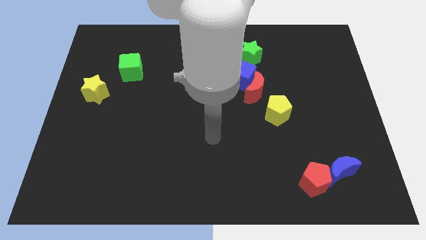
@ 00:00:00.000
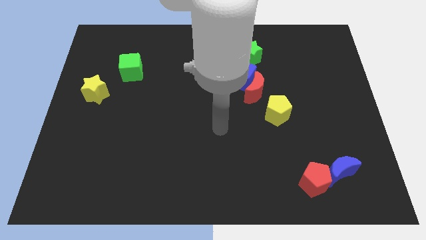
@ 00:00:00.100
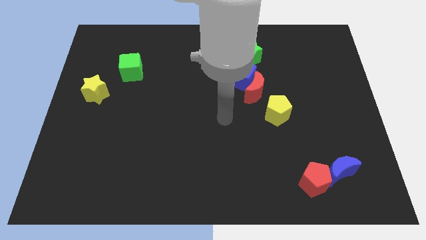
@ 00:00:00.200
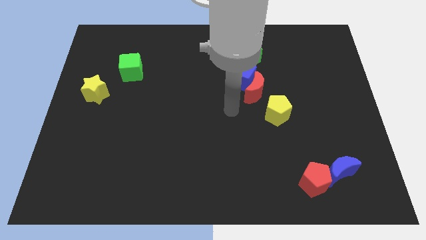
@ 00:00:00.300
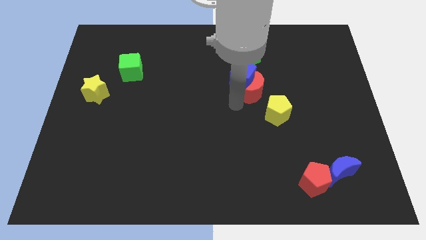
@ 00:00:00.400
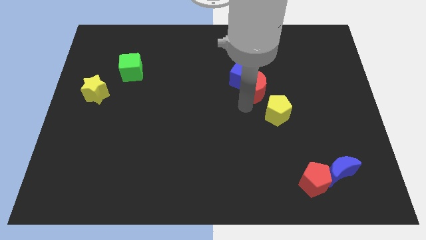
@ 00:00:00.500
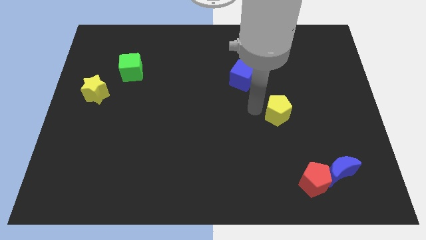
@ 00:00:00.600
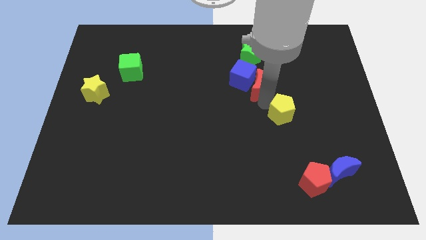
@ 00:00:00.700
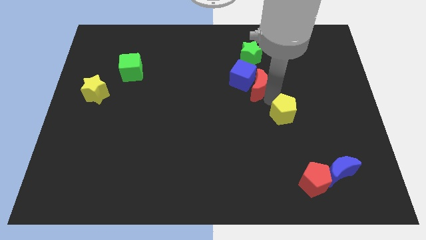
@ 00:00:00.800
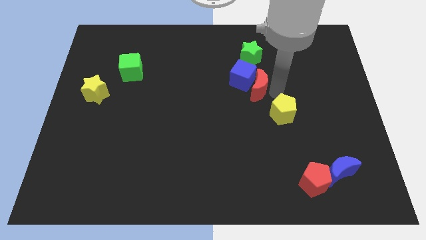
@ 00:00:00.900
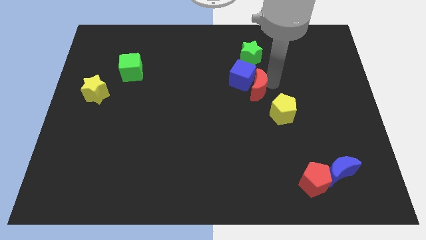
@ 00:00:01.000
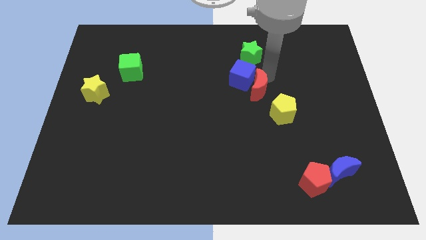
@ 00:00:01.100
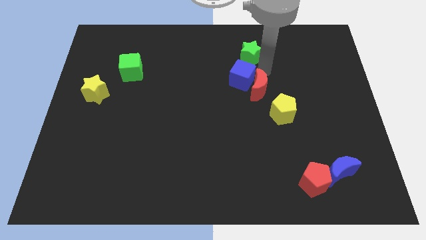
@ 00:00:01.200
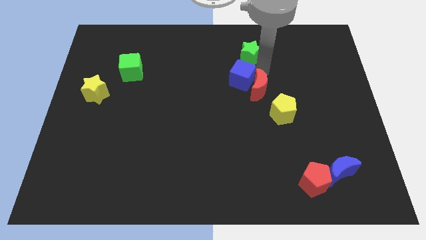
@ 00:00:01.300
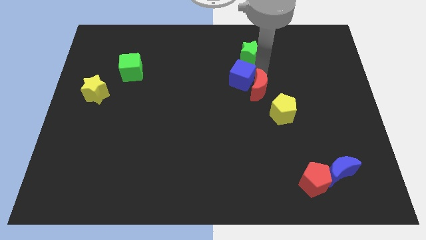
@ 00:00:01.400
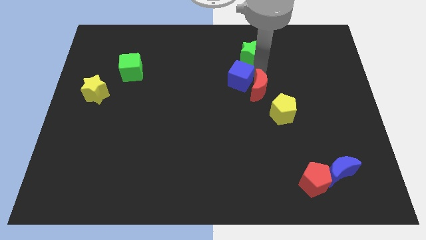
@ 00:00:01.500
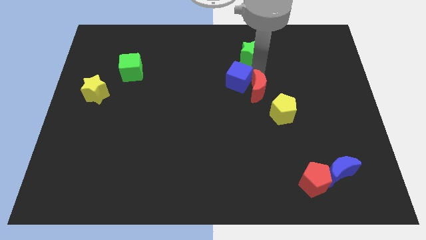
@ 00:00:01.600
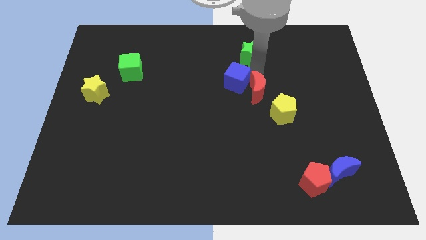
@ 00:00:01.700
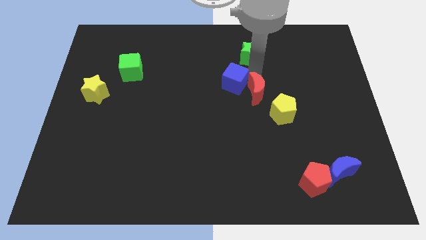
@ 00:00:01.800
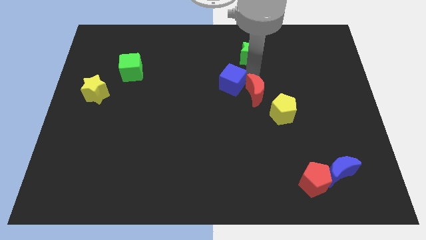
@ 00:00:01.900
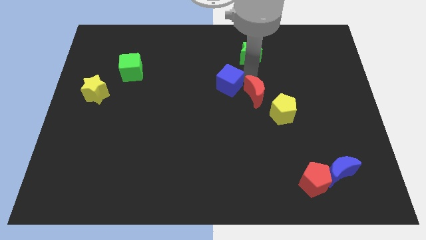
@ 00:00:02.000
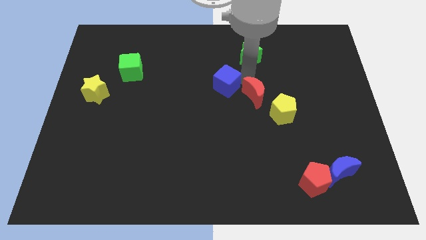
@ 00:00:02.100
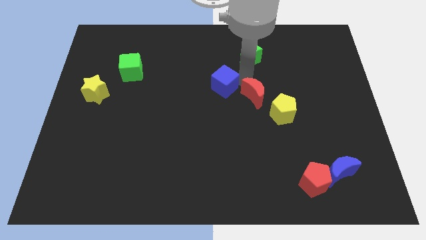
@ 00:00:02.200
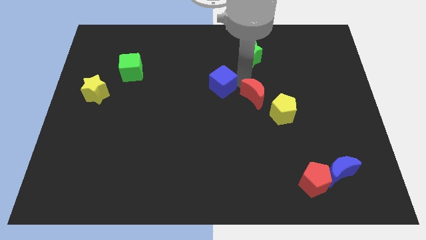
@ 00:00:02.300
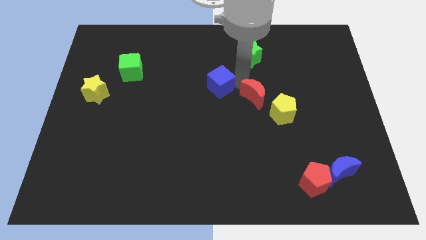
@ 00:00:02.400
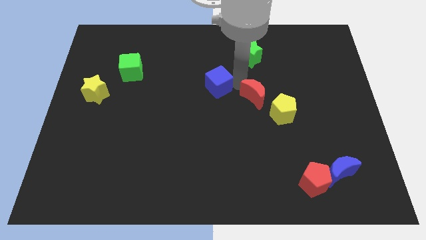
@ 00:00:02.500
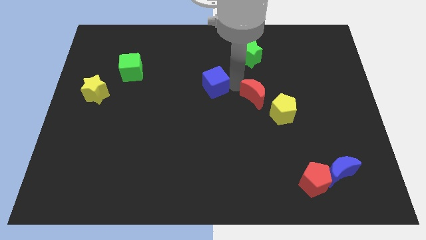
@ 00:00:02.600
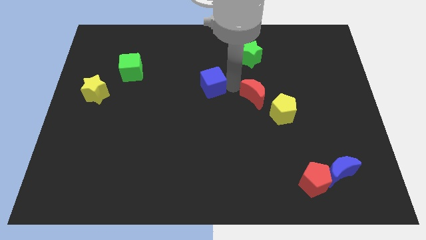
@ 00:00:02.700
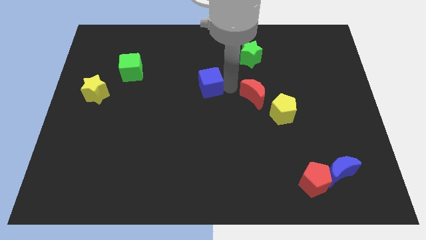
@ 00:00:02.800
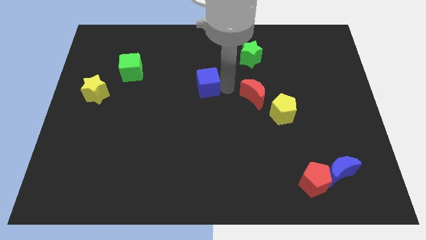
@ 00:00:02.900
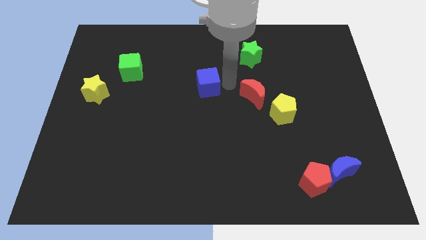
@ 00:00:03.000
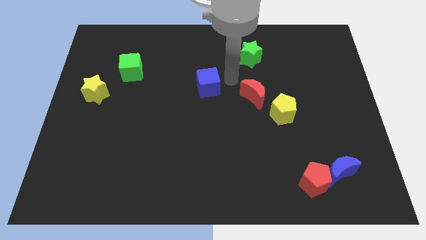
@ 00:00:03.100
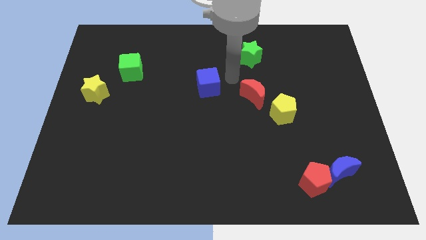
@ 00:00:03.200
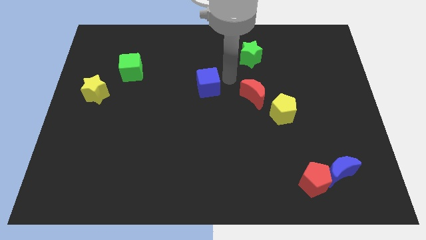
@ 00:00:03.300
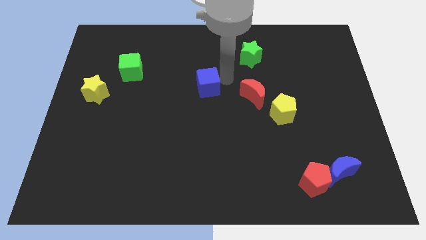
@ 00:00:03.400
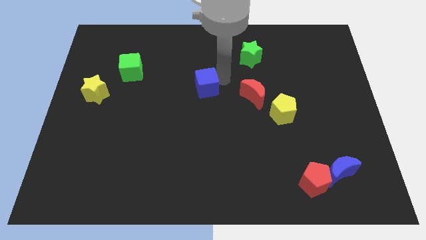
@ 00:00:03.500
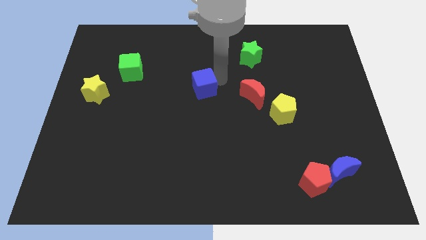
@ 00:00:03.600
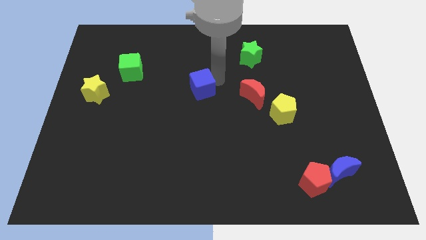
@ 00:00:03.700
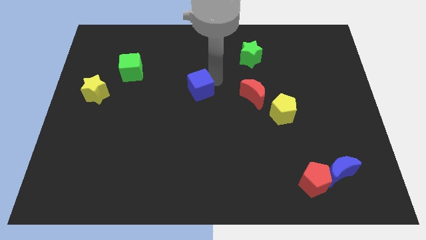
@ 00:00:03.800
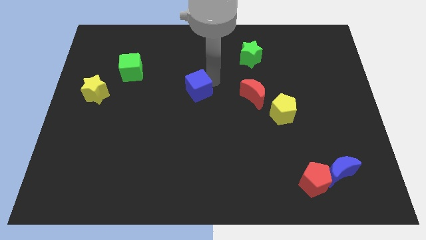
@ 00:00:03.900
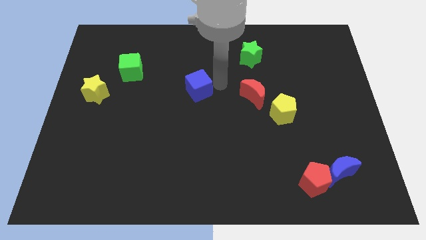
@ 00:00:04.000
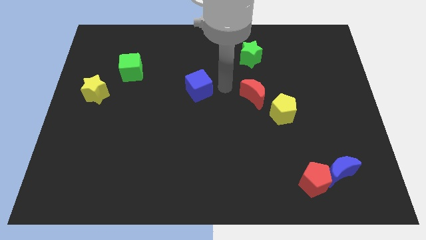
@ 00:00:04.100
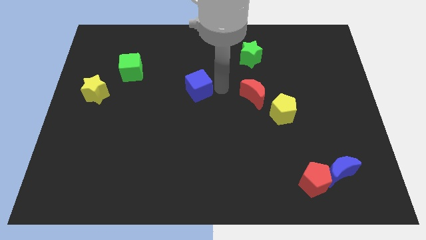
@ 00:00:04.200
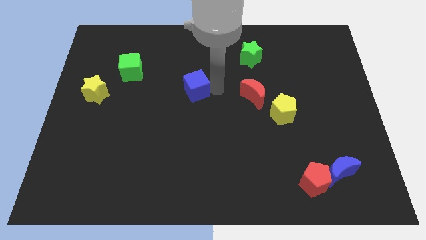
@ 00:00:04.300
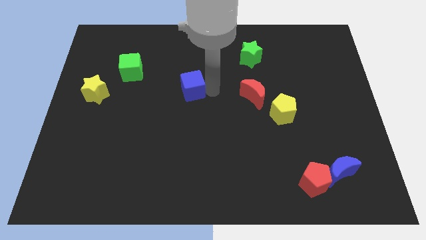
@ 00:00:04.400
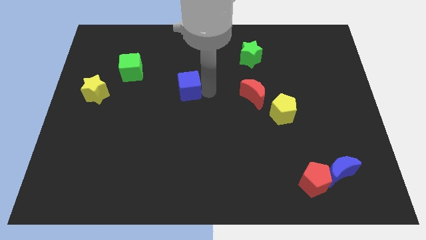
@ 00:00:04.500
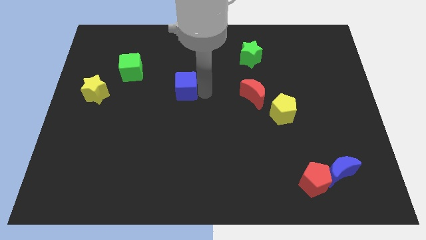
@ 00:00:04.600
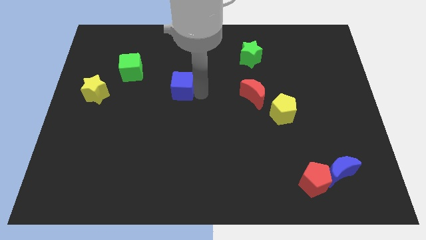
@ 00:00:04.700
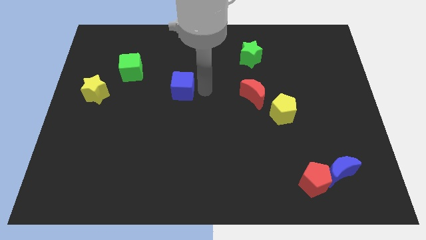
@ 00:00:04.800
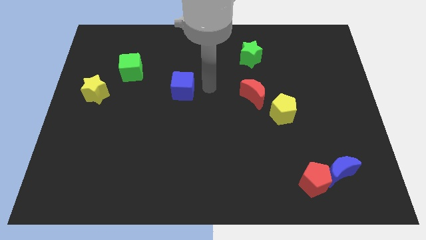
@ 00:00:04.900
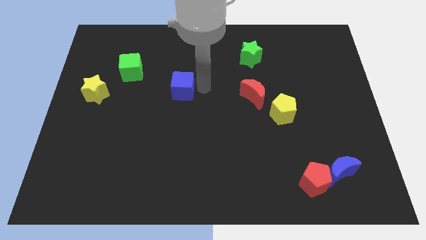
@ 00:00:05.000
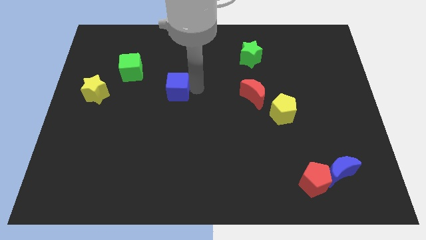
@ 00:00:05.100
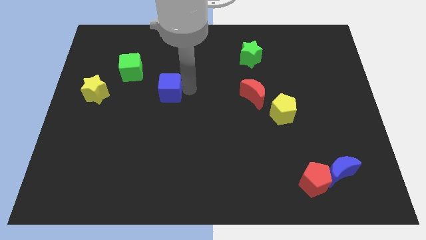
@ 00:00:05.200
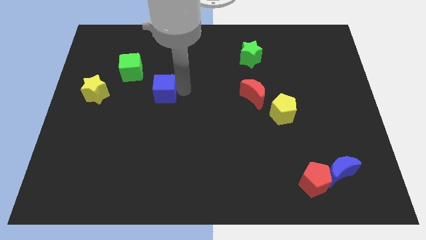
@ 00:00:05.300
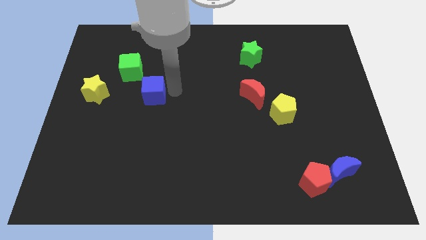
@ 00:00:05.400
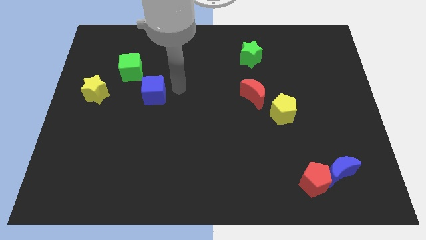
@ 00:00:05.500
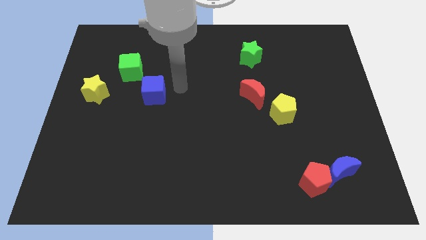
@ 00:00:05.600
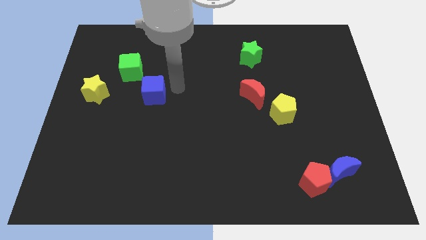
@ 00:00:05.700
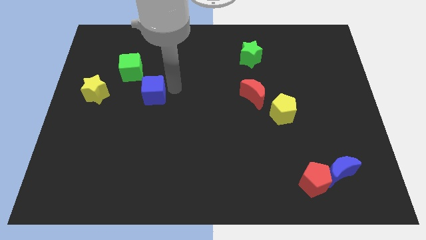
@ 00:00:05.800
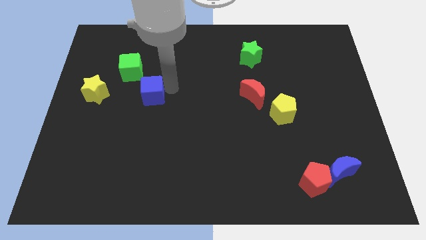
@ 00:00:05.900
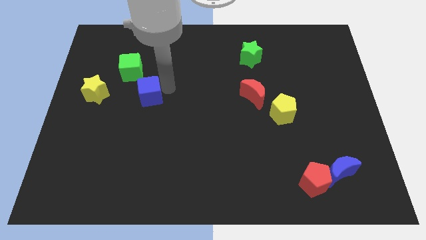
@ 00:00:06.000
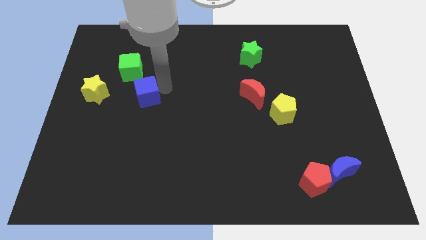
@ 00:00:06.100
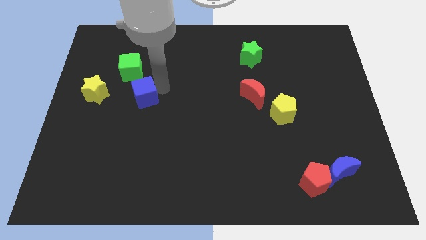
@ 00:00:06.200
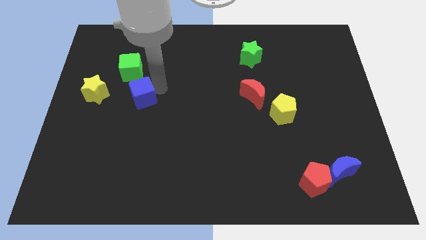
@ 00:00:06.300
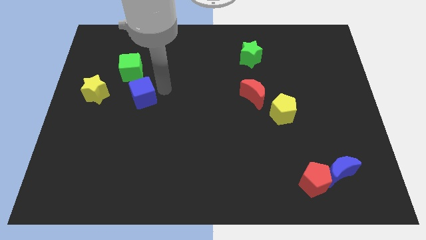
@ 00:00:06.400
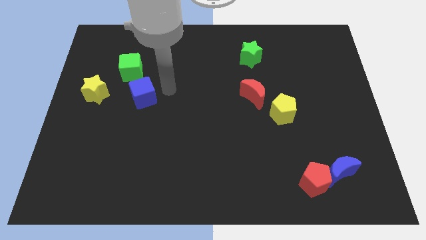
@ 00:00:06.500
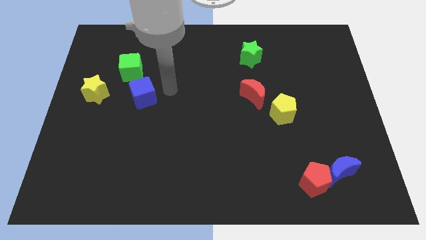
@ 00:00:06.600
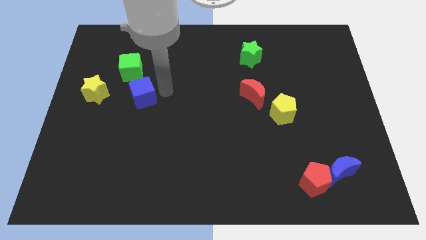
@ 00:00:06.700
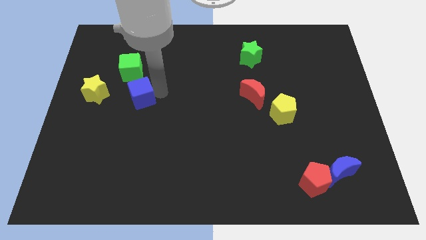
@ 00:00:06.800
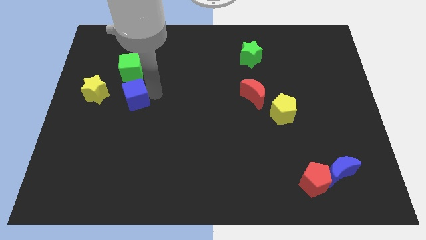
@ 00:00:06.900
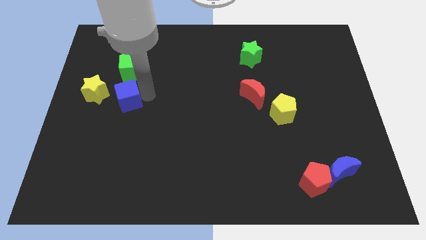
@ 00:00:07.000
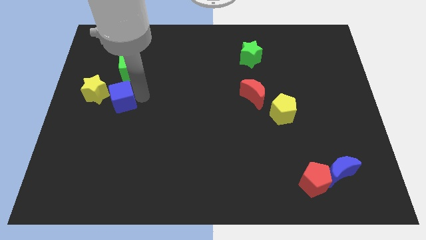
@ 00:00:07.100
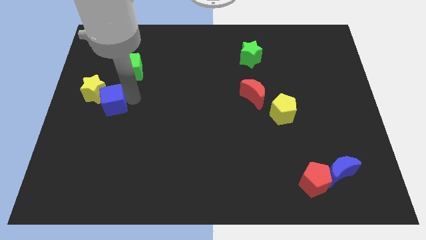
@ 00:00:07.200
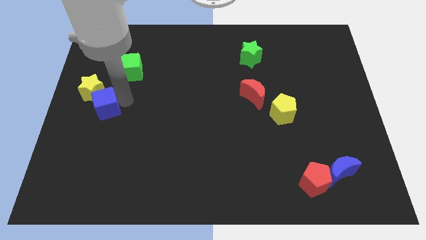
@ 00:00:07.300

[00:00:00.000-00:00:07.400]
move the blue cube to the center left
